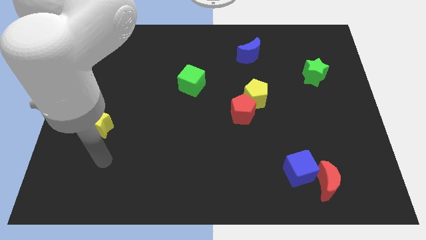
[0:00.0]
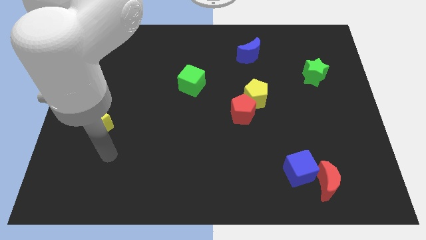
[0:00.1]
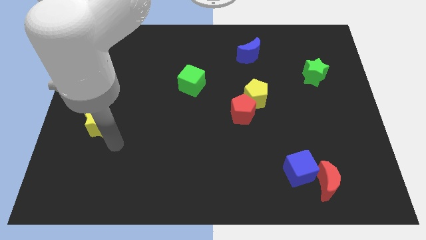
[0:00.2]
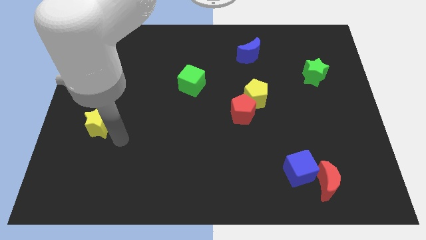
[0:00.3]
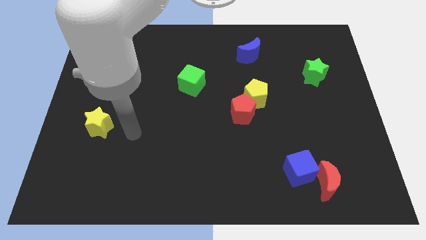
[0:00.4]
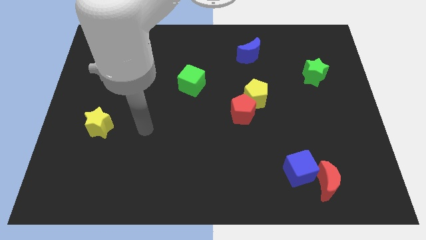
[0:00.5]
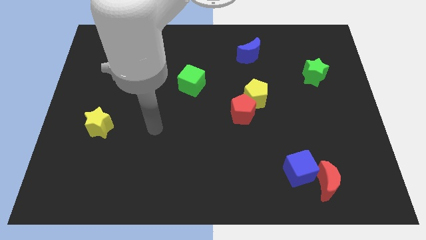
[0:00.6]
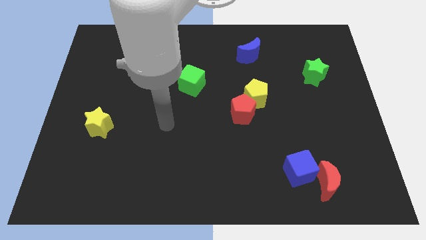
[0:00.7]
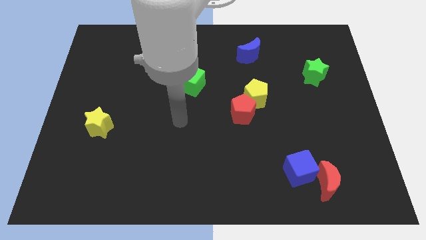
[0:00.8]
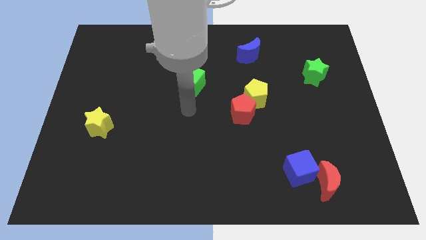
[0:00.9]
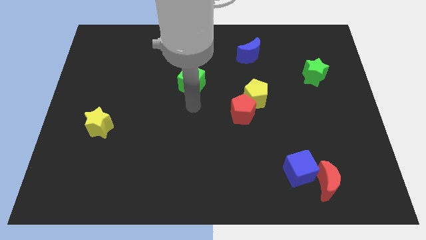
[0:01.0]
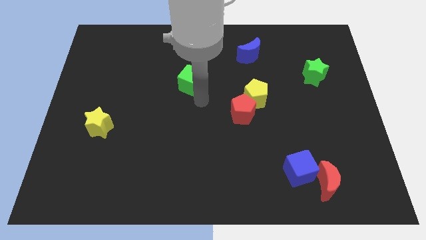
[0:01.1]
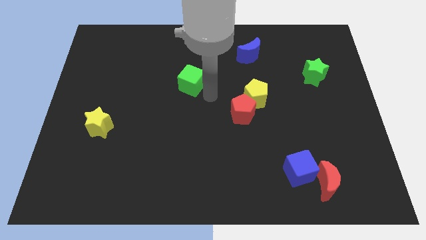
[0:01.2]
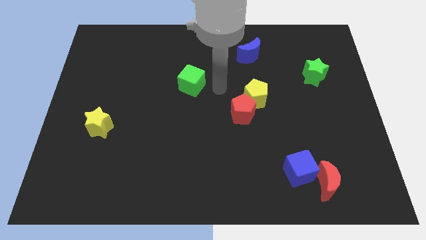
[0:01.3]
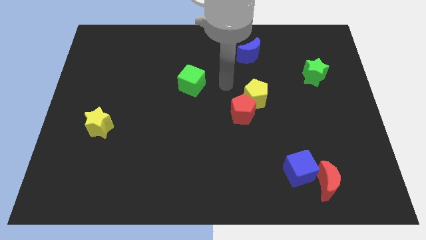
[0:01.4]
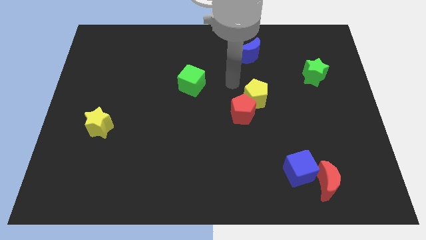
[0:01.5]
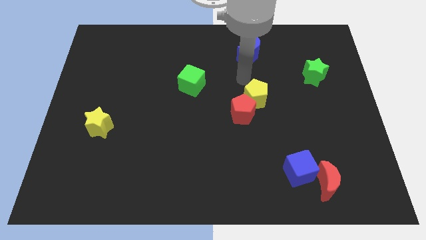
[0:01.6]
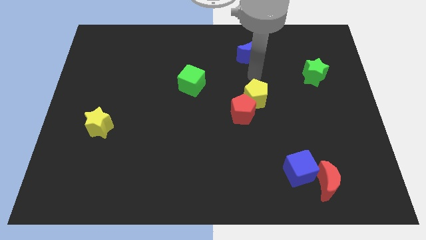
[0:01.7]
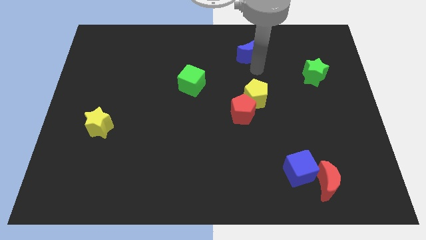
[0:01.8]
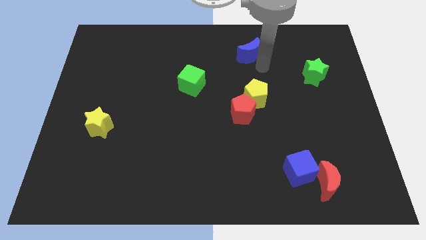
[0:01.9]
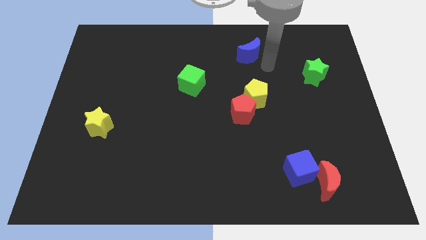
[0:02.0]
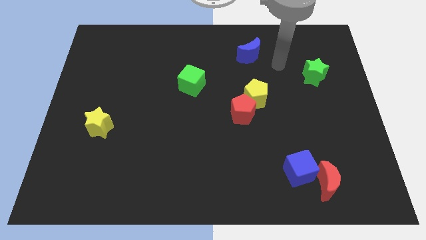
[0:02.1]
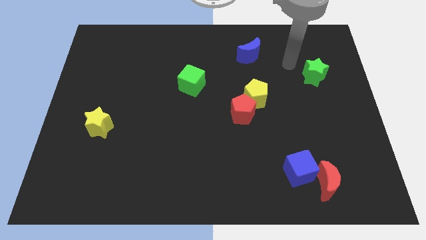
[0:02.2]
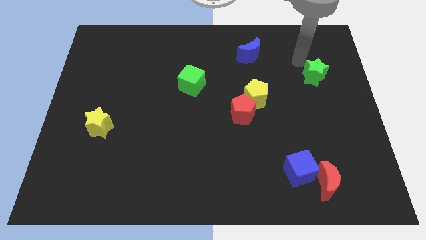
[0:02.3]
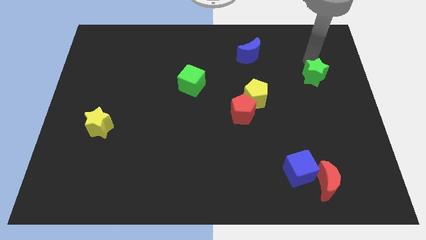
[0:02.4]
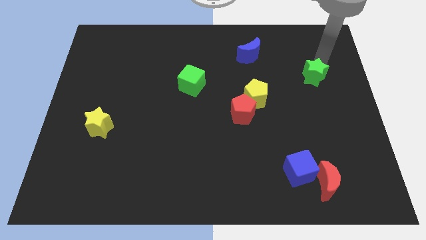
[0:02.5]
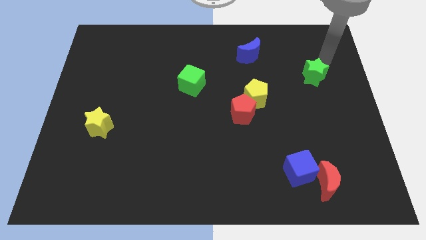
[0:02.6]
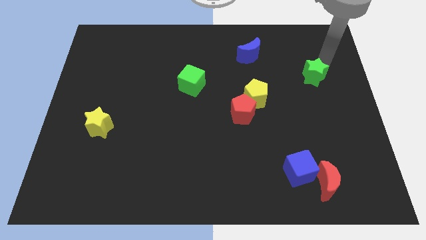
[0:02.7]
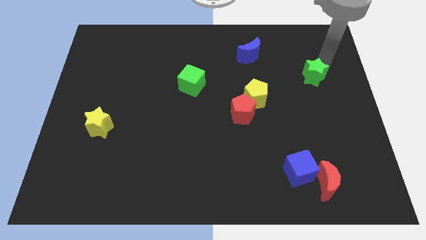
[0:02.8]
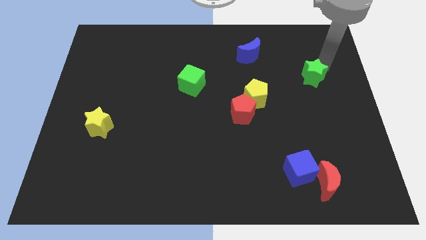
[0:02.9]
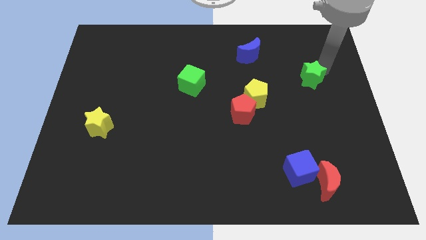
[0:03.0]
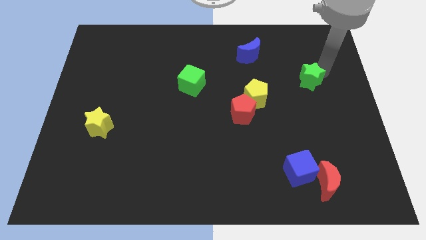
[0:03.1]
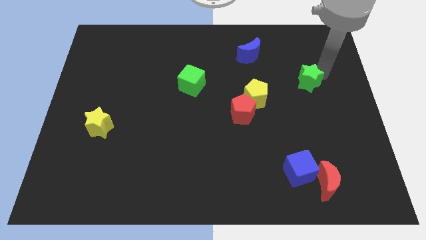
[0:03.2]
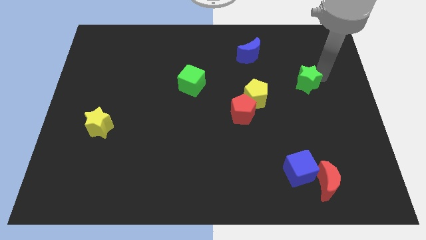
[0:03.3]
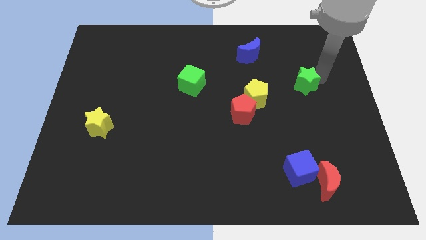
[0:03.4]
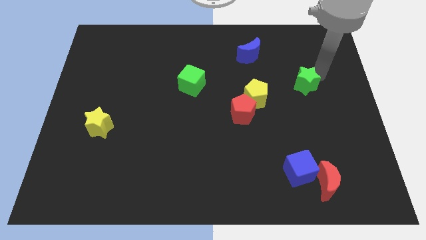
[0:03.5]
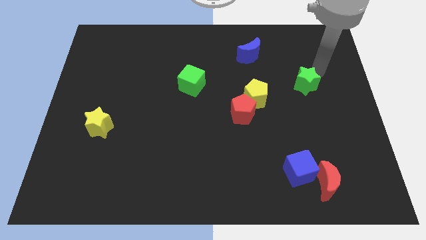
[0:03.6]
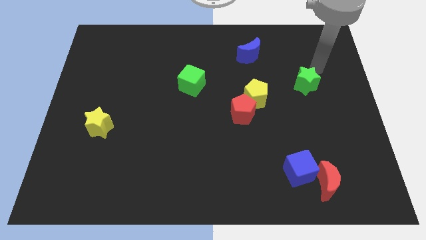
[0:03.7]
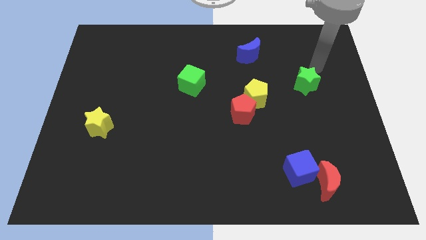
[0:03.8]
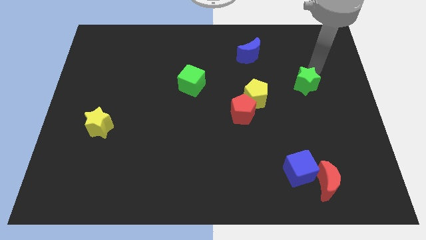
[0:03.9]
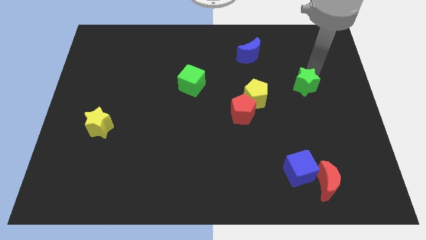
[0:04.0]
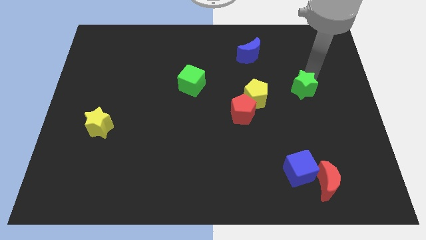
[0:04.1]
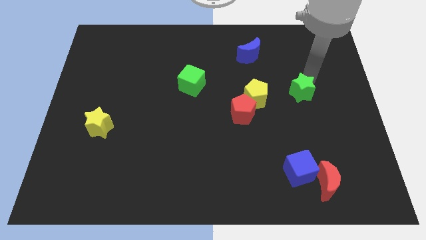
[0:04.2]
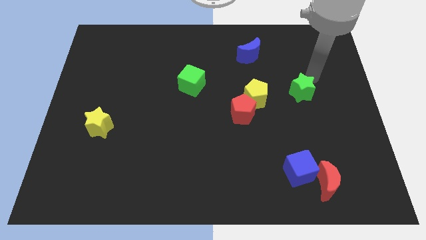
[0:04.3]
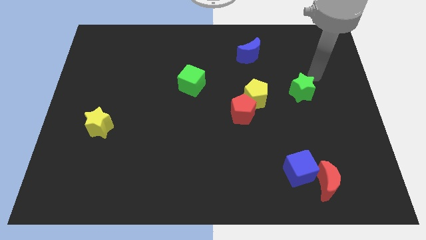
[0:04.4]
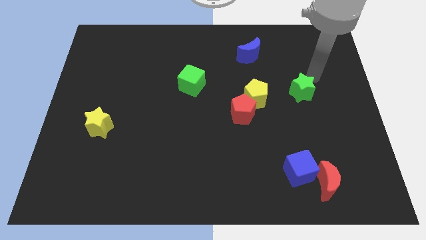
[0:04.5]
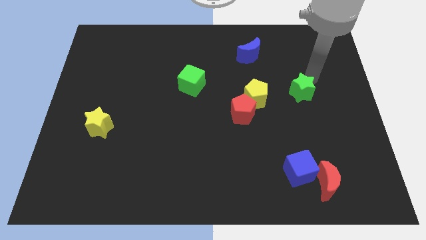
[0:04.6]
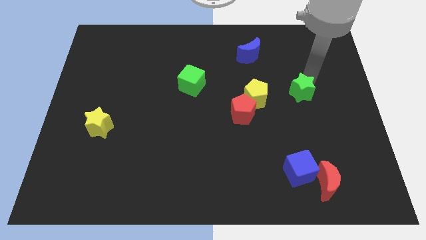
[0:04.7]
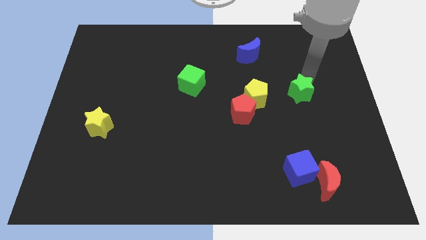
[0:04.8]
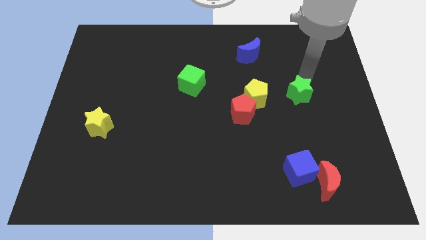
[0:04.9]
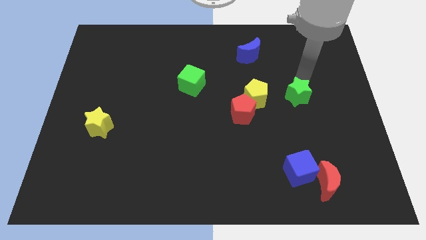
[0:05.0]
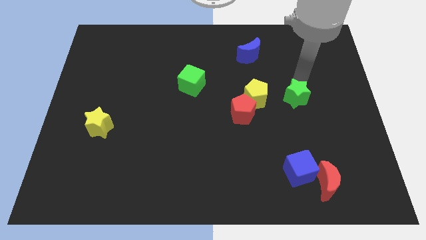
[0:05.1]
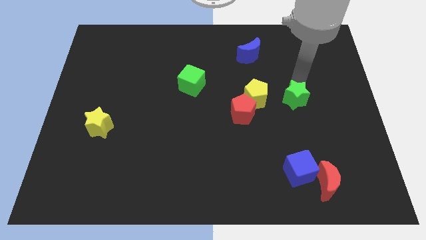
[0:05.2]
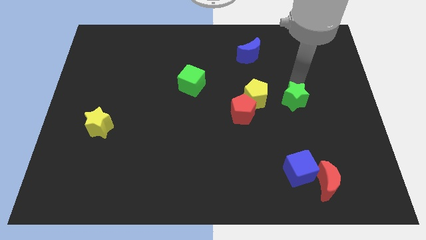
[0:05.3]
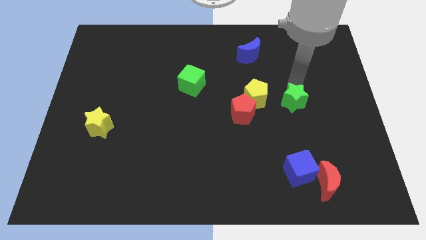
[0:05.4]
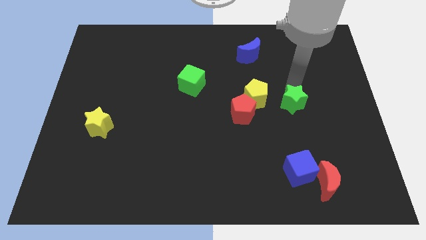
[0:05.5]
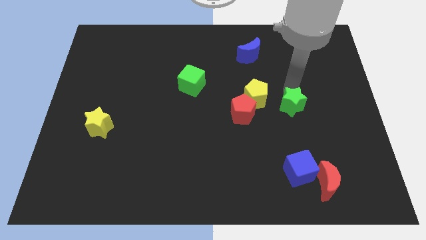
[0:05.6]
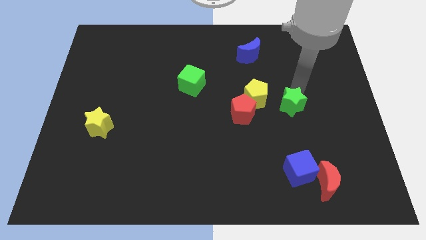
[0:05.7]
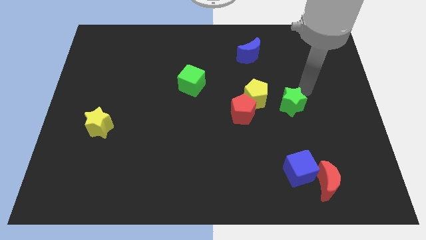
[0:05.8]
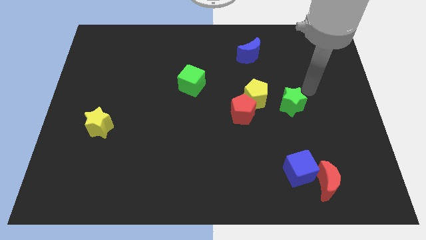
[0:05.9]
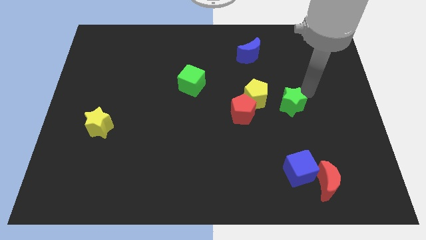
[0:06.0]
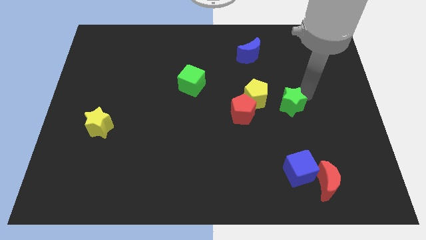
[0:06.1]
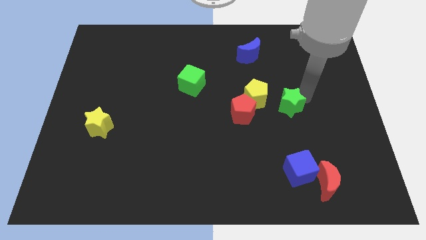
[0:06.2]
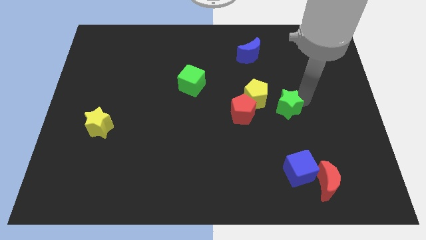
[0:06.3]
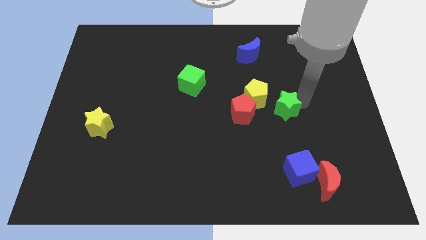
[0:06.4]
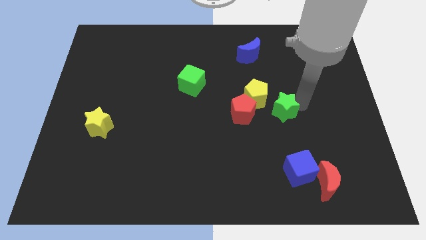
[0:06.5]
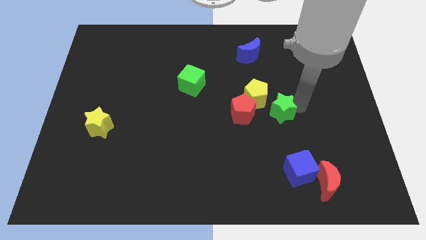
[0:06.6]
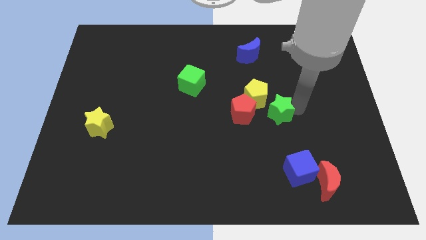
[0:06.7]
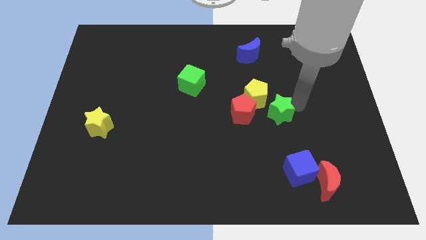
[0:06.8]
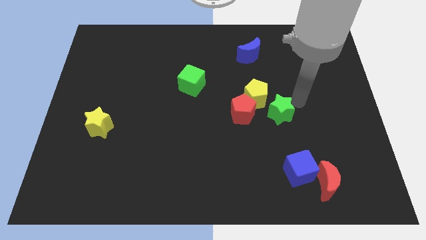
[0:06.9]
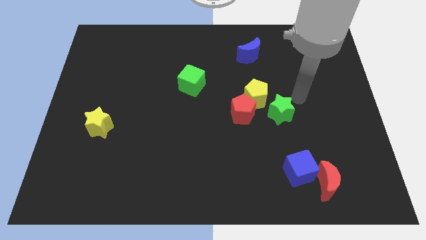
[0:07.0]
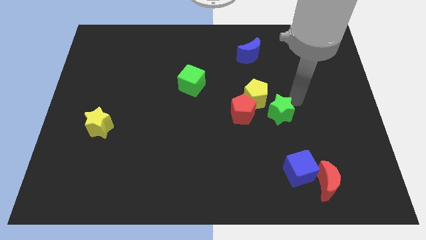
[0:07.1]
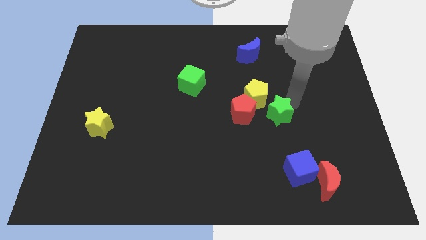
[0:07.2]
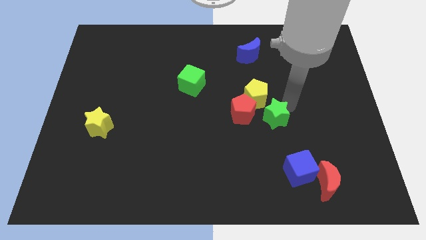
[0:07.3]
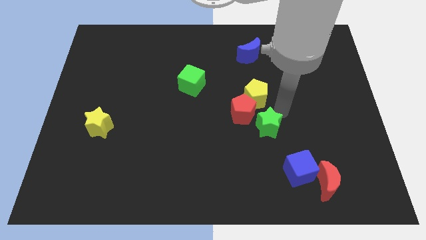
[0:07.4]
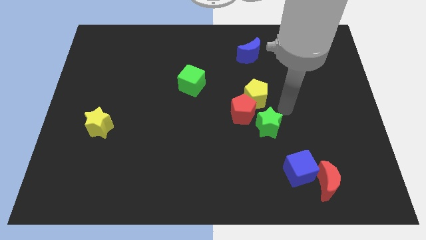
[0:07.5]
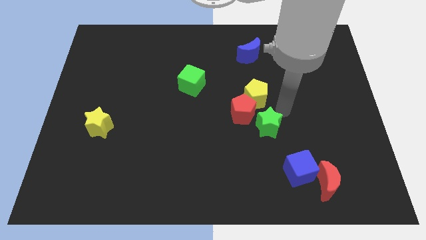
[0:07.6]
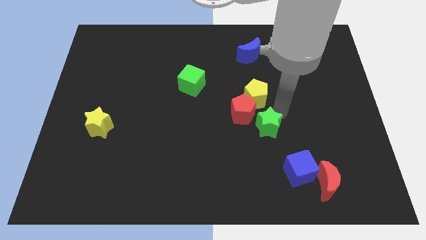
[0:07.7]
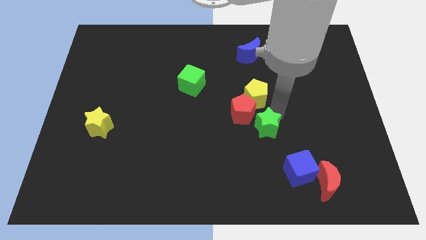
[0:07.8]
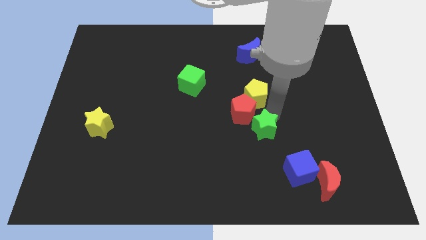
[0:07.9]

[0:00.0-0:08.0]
move the green star to the bottom side of the red pentagon
